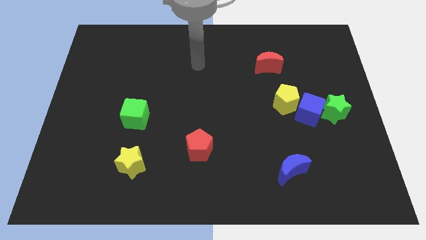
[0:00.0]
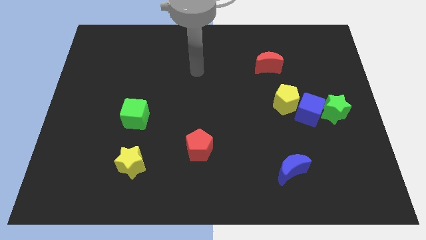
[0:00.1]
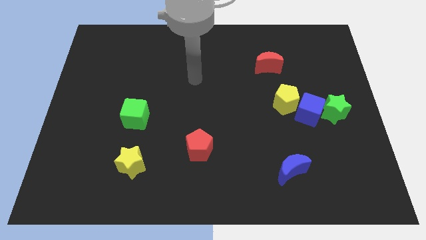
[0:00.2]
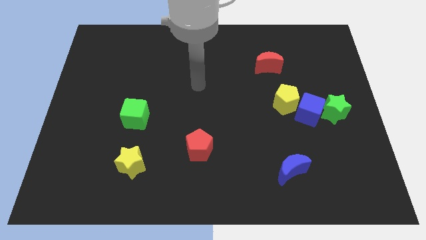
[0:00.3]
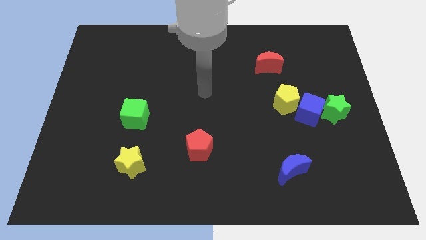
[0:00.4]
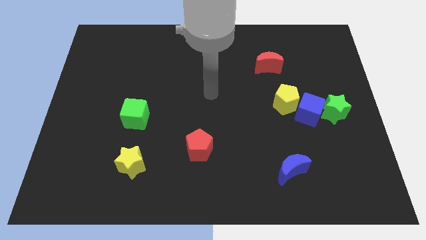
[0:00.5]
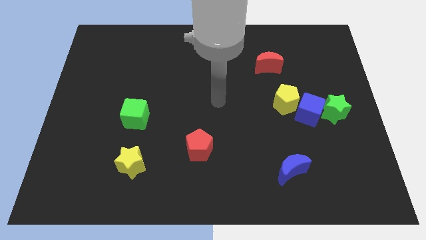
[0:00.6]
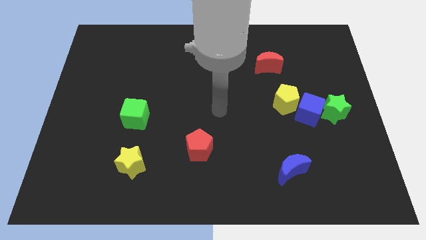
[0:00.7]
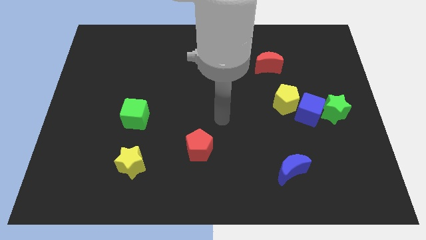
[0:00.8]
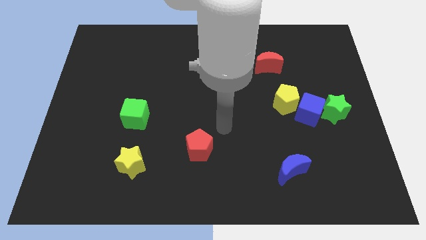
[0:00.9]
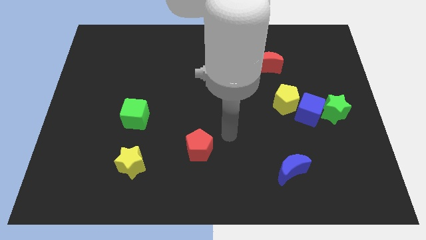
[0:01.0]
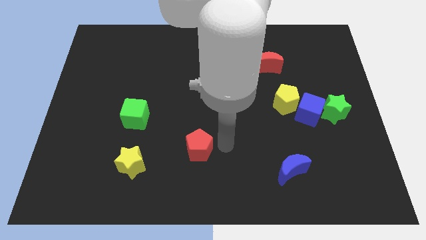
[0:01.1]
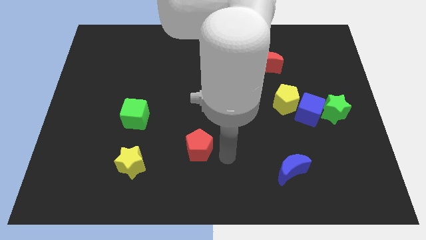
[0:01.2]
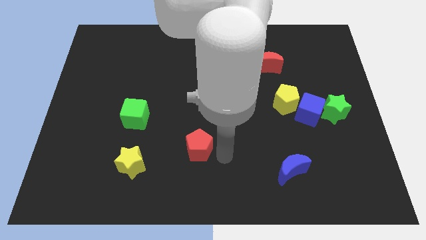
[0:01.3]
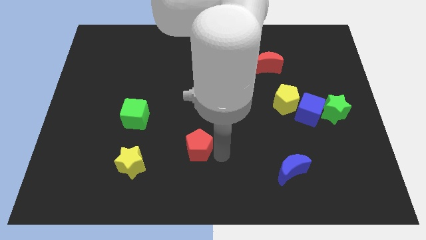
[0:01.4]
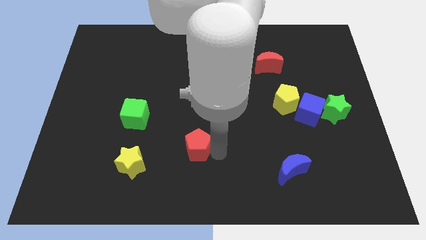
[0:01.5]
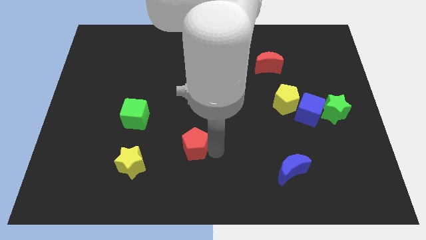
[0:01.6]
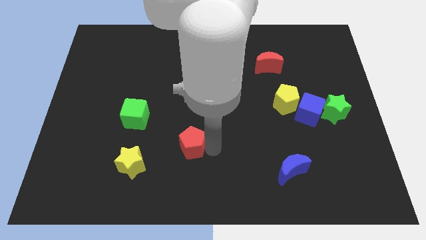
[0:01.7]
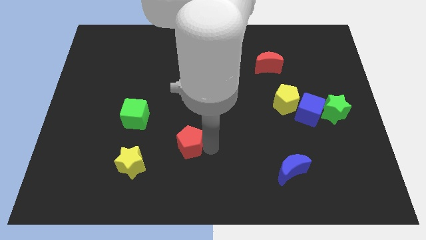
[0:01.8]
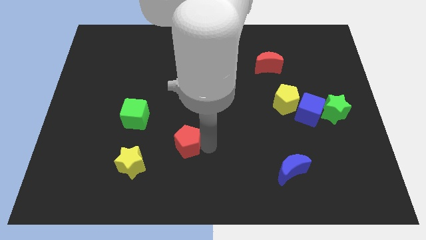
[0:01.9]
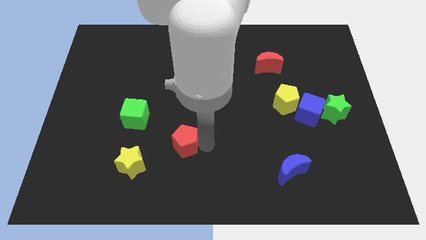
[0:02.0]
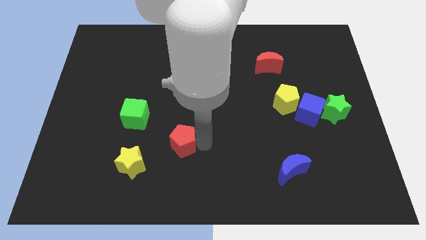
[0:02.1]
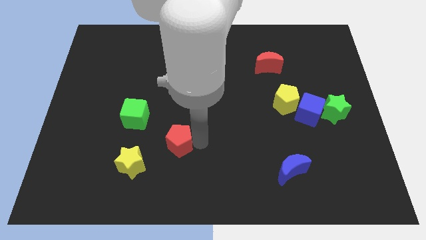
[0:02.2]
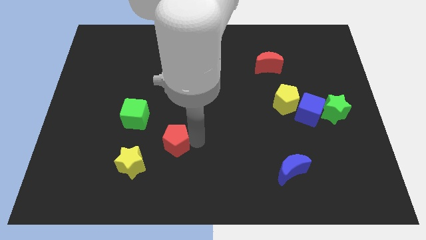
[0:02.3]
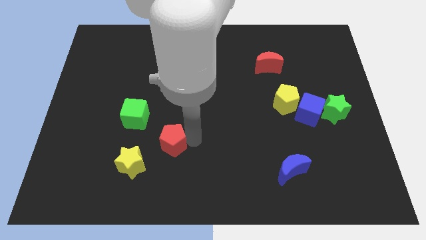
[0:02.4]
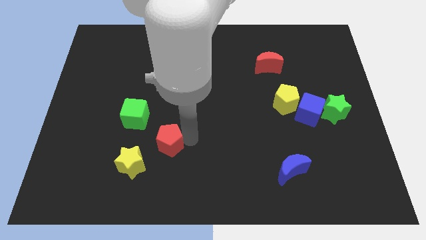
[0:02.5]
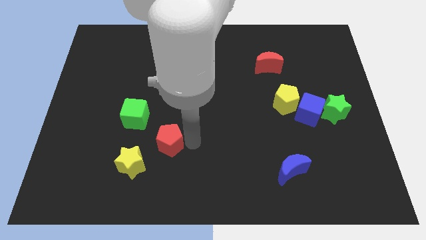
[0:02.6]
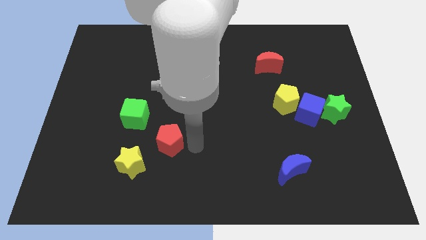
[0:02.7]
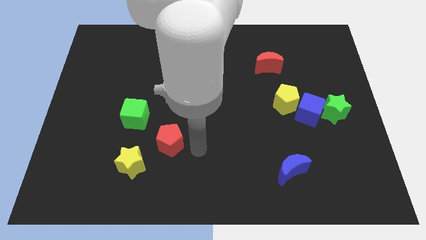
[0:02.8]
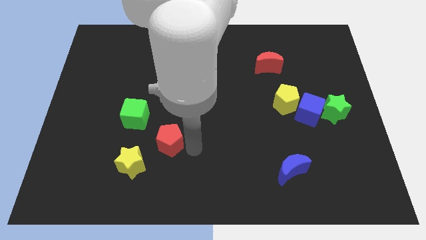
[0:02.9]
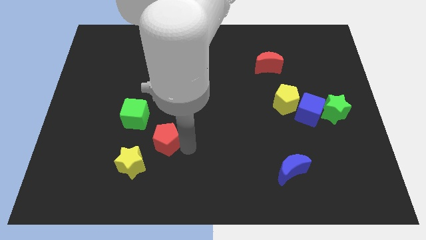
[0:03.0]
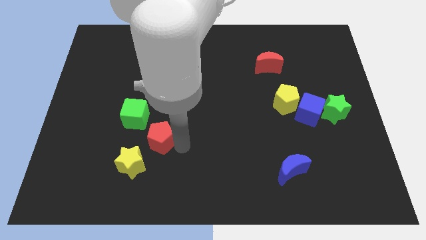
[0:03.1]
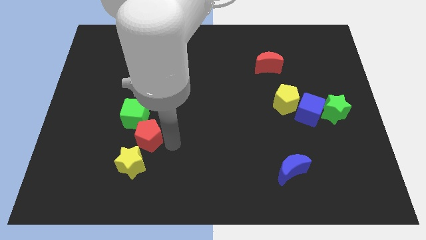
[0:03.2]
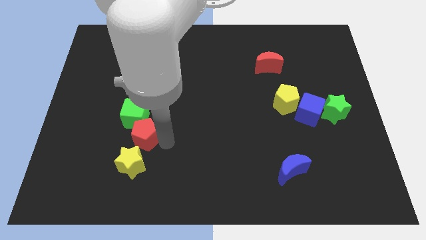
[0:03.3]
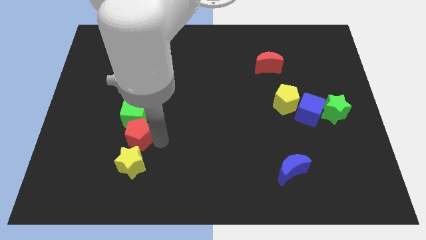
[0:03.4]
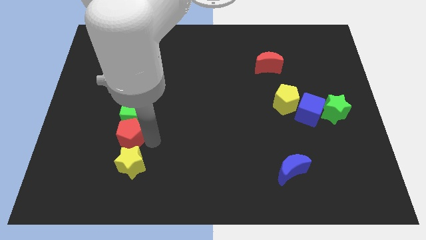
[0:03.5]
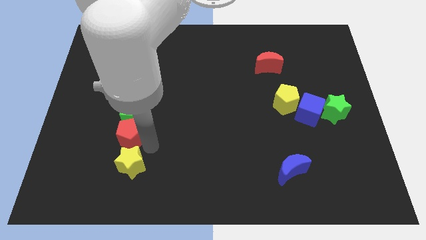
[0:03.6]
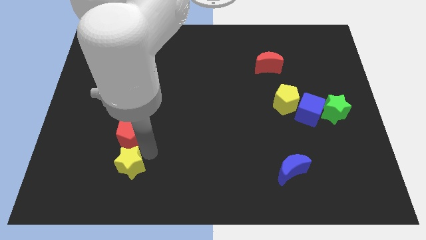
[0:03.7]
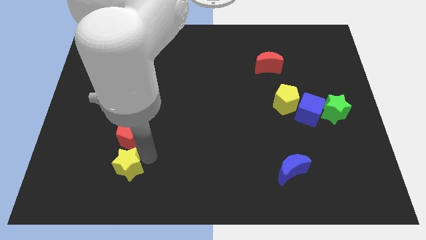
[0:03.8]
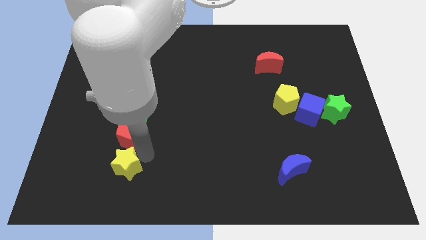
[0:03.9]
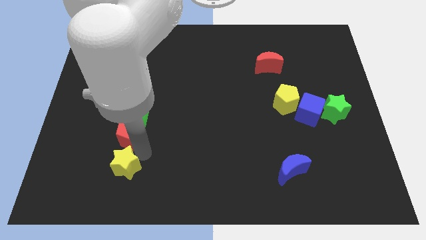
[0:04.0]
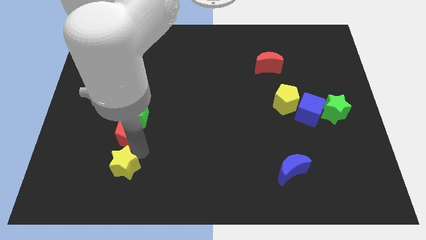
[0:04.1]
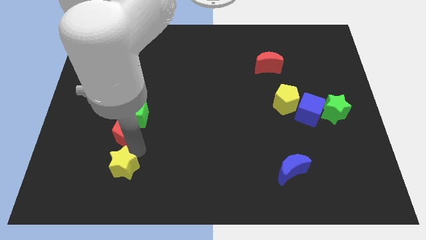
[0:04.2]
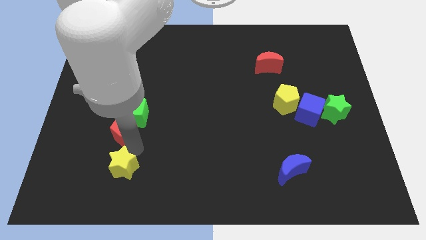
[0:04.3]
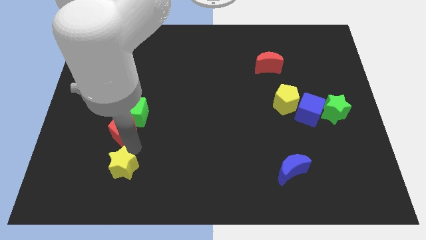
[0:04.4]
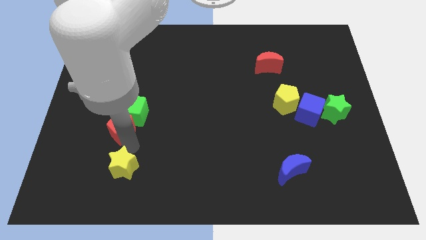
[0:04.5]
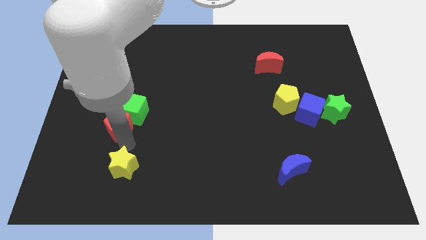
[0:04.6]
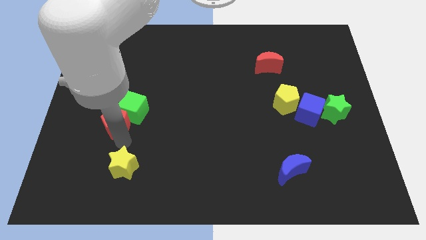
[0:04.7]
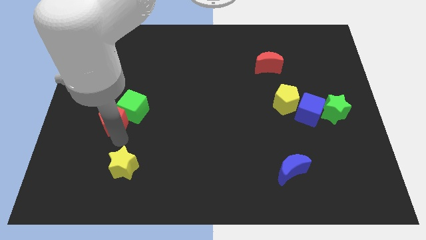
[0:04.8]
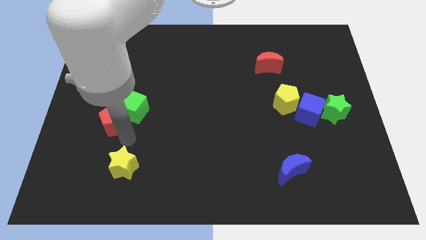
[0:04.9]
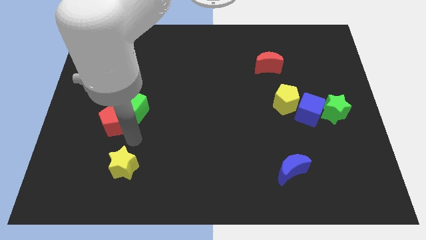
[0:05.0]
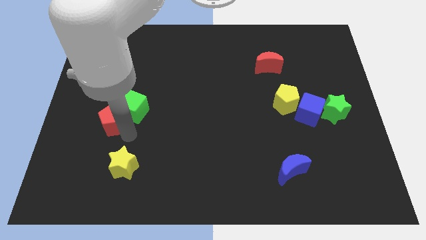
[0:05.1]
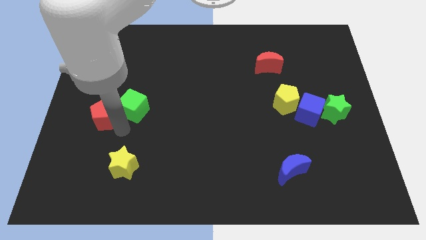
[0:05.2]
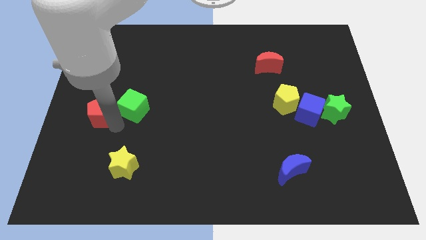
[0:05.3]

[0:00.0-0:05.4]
move the red pentagon to the left side
